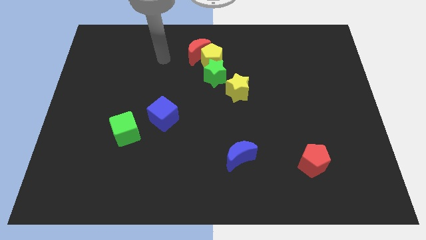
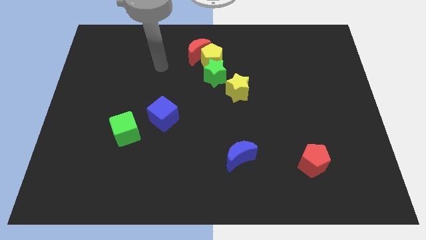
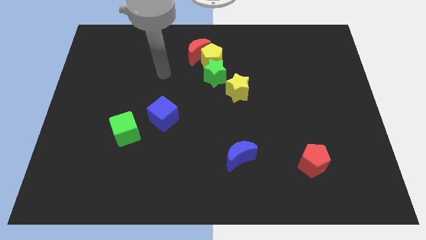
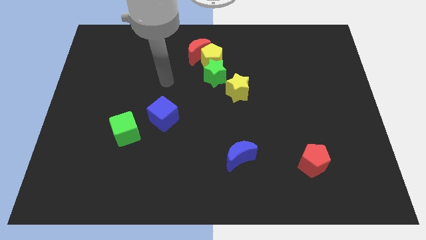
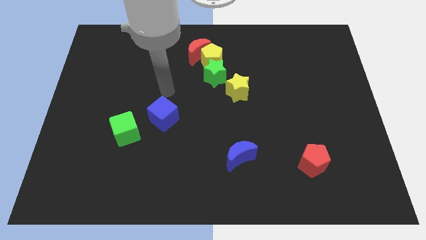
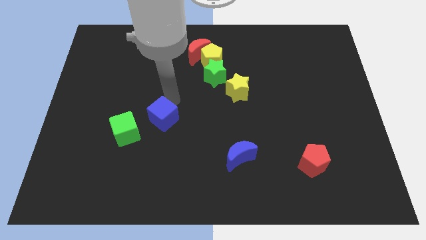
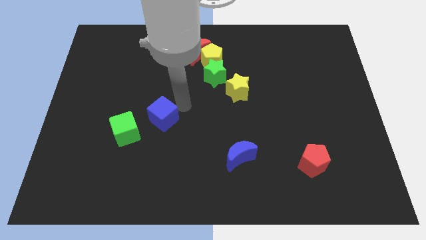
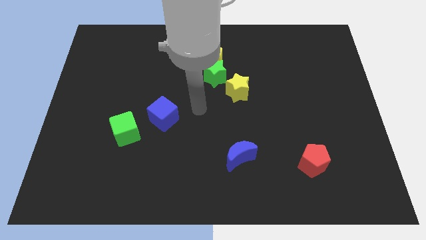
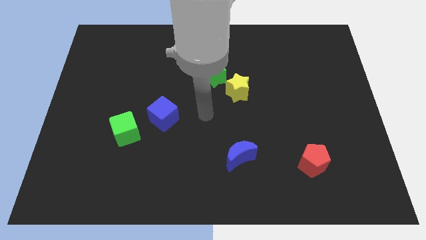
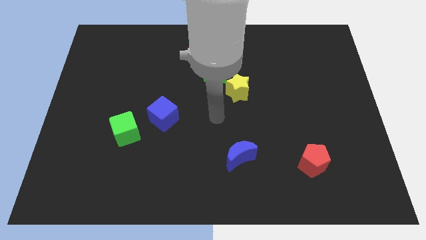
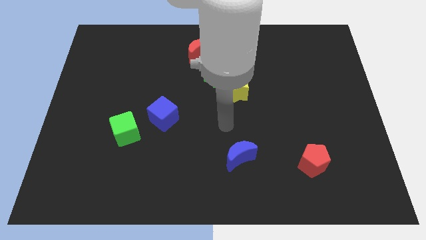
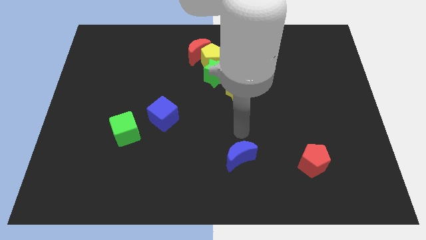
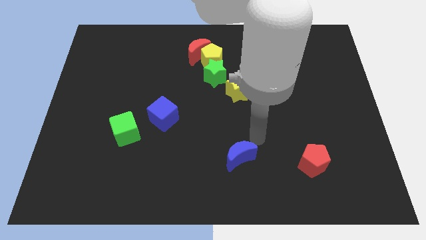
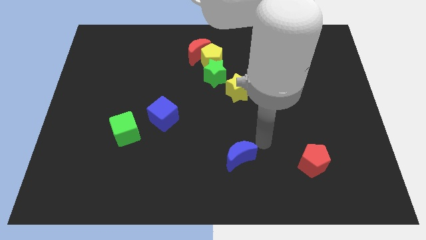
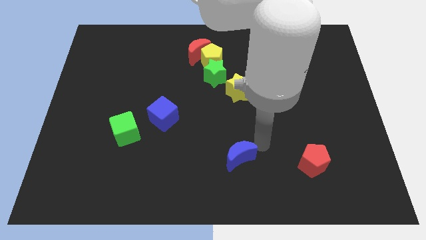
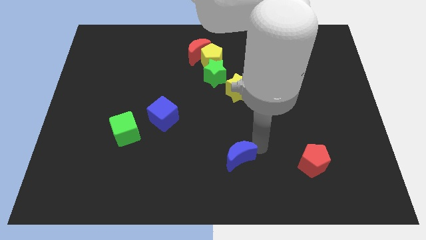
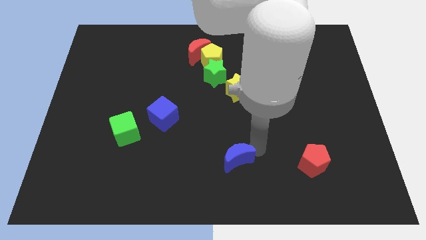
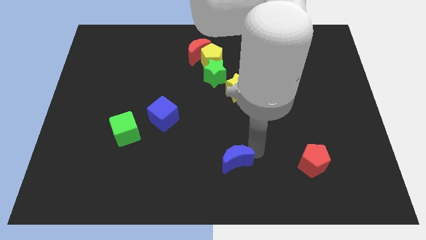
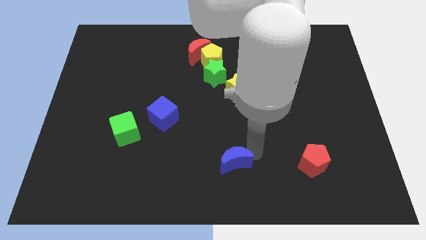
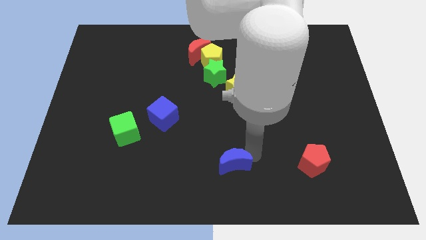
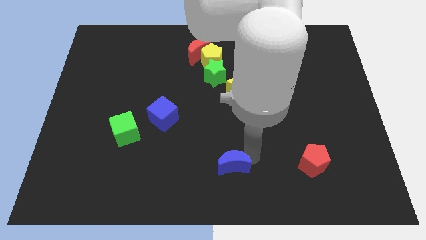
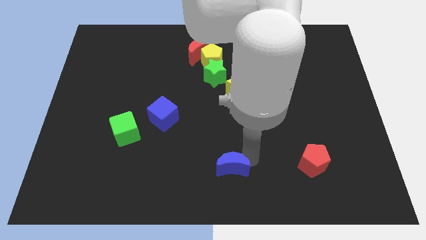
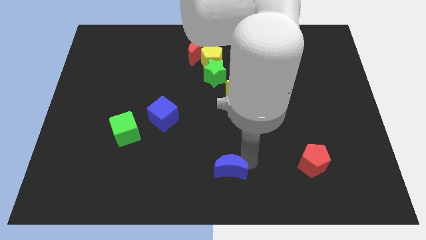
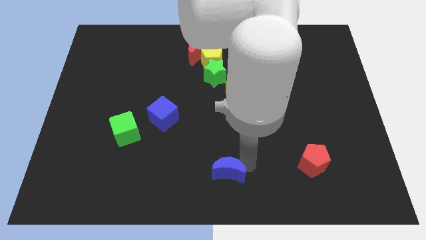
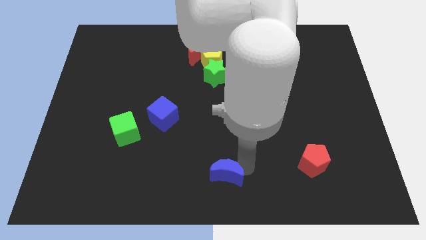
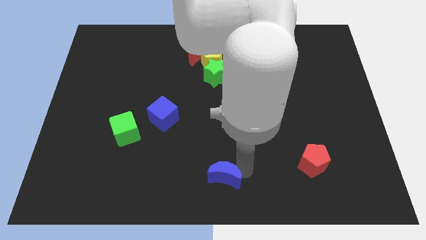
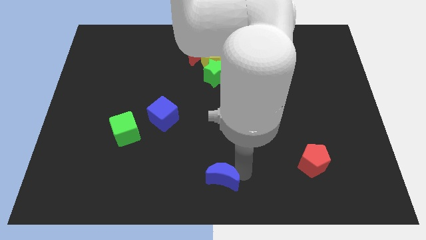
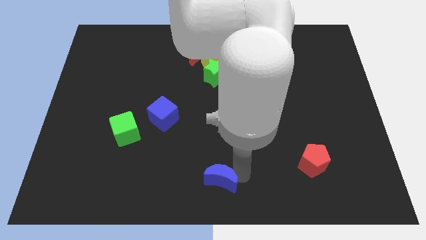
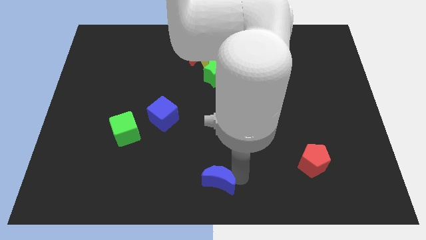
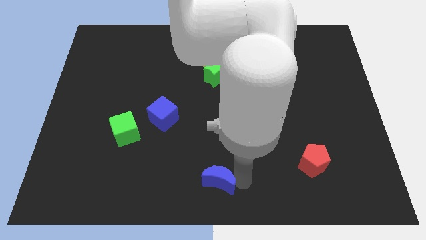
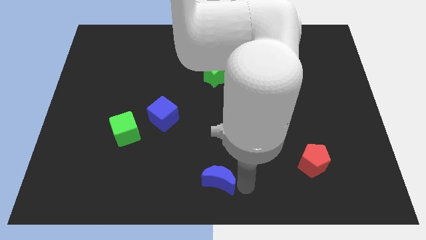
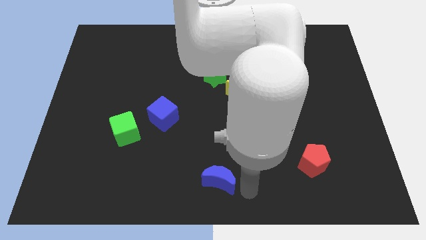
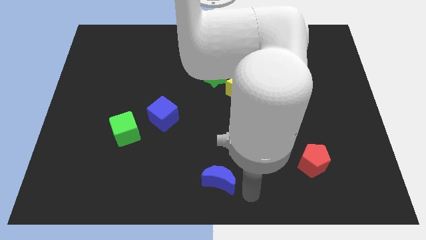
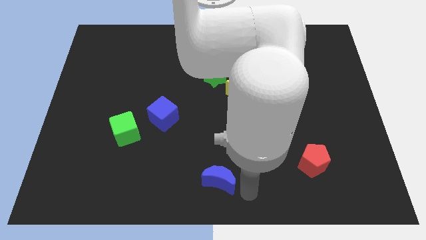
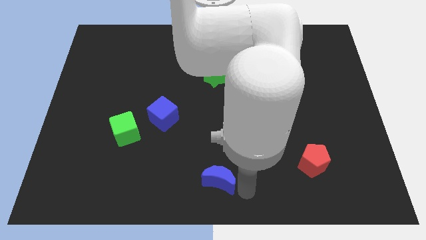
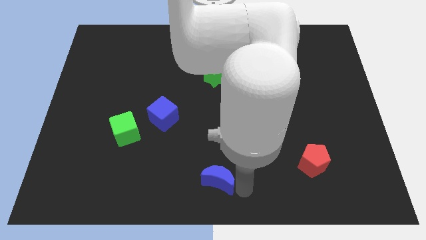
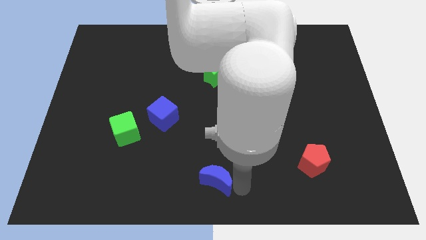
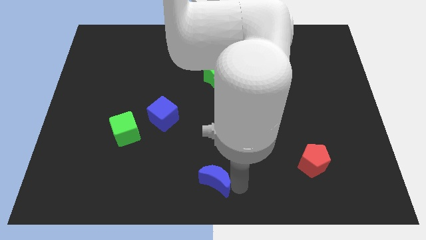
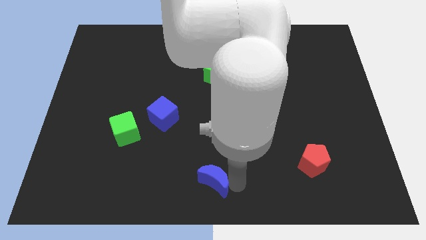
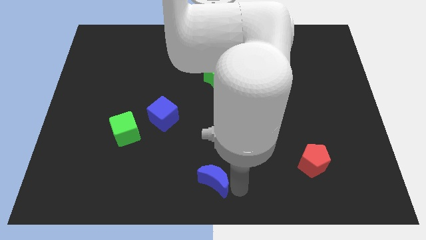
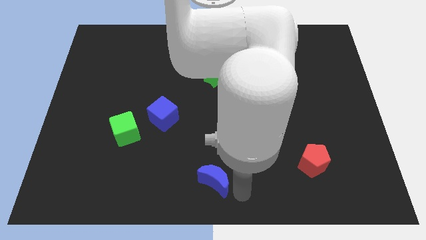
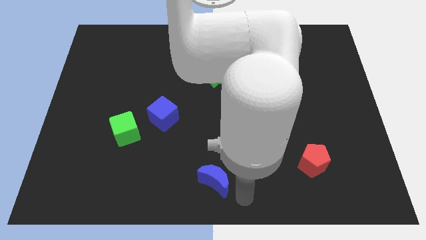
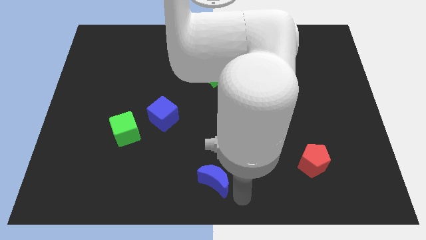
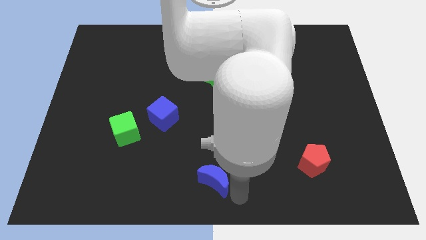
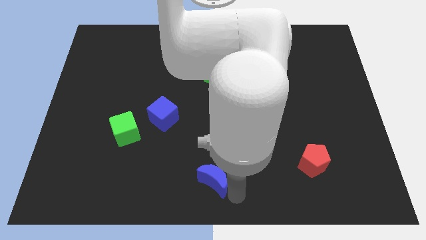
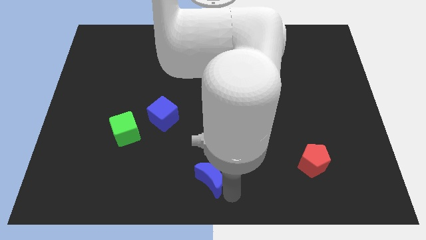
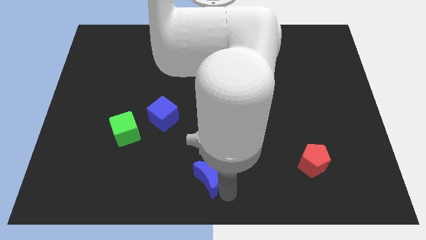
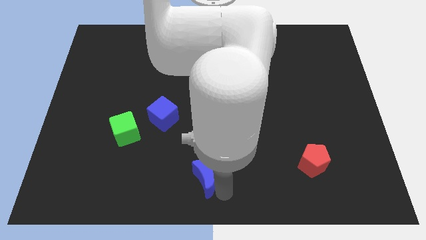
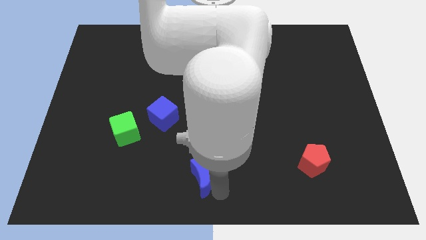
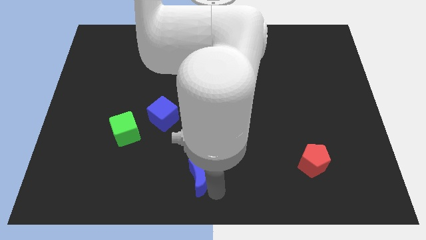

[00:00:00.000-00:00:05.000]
push the blue moon somewhat to the left

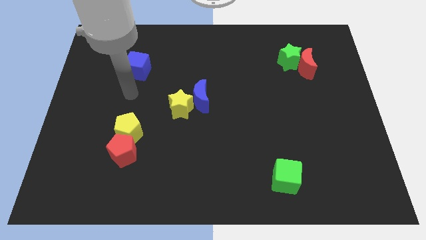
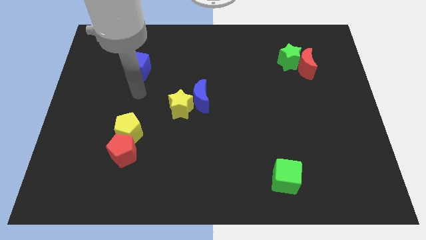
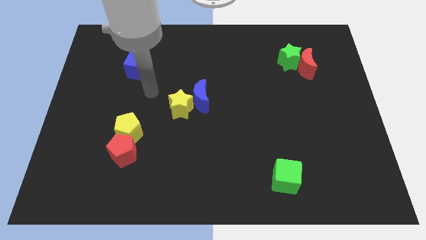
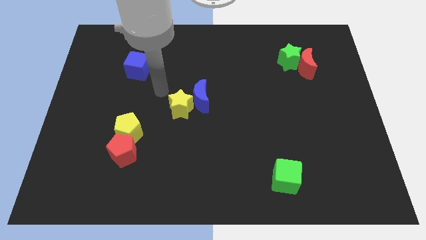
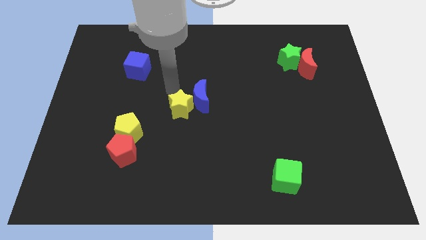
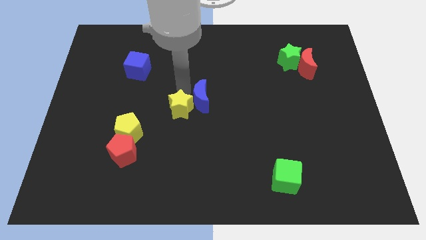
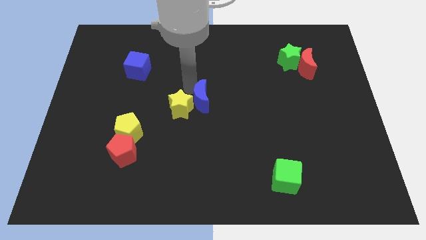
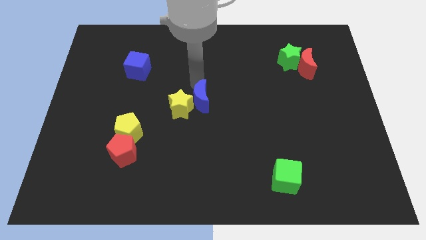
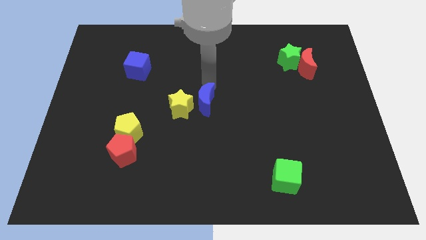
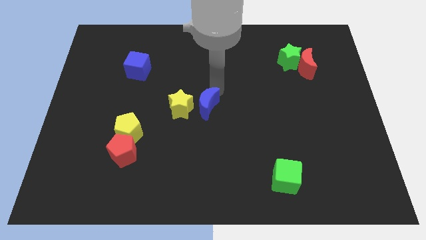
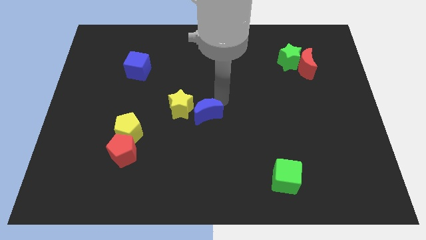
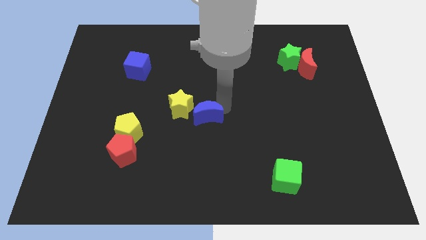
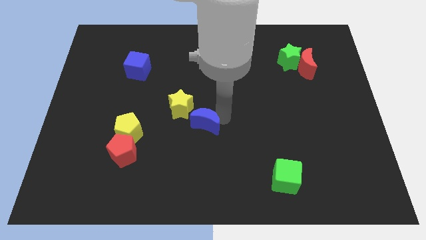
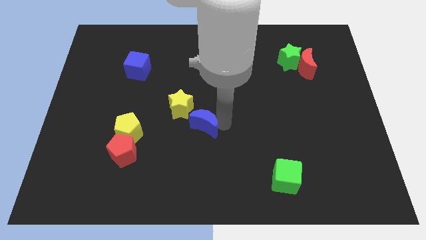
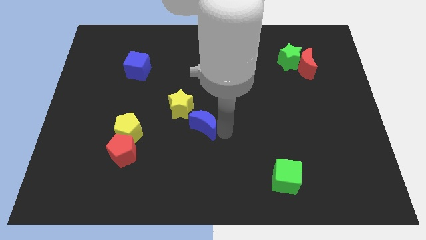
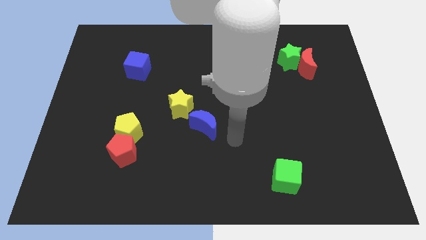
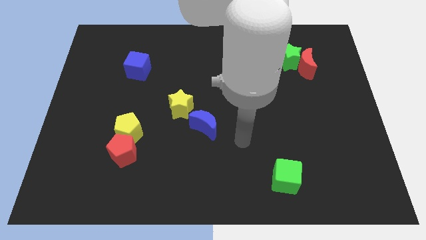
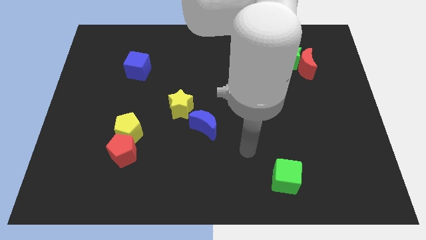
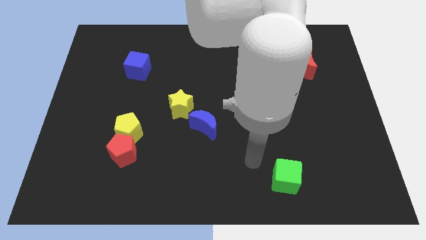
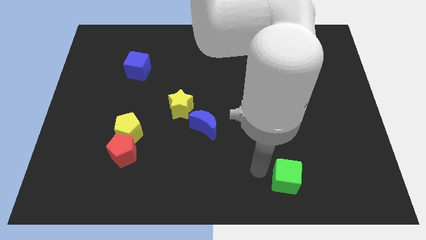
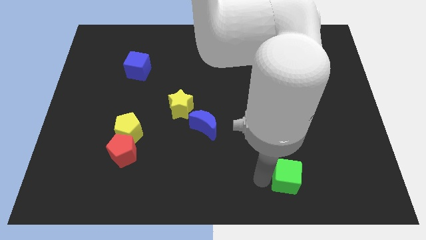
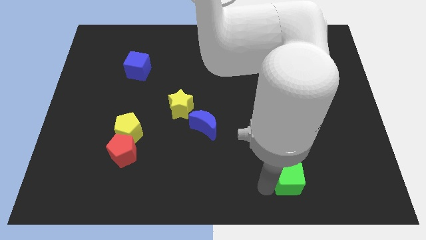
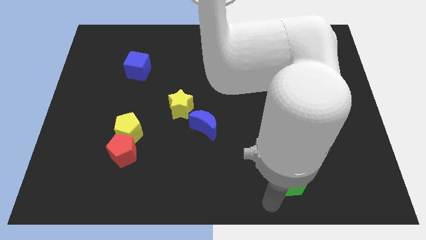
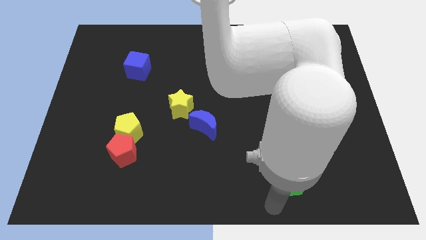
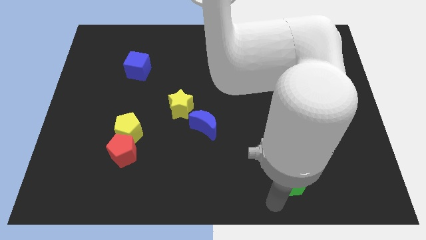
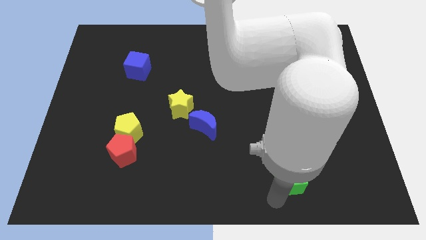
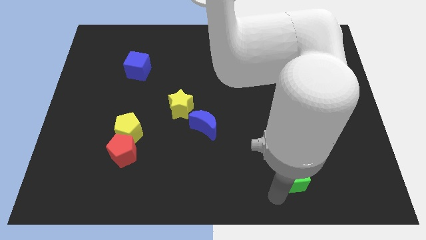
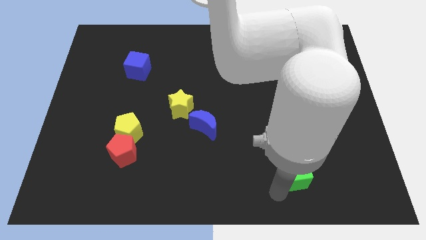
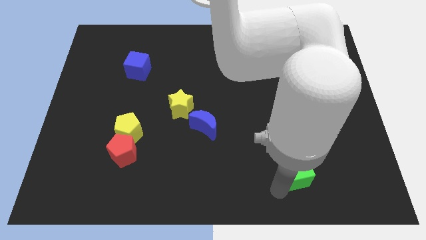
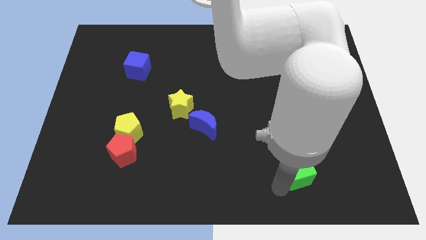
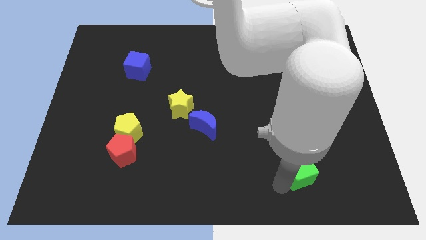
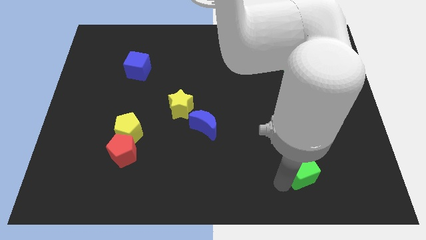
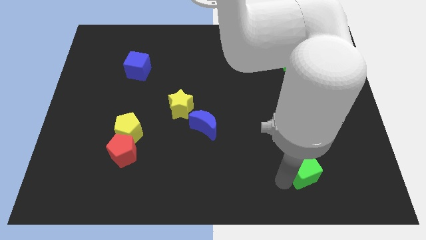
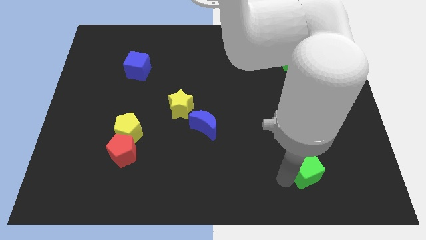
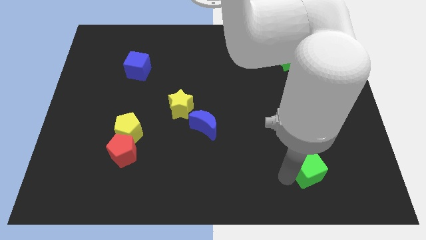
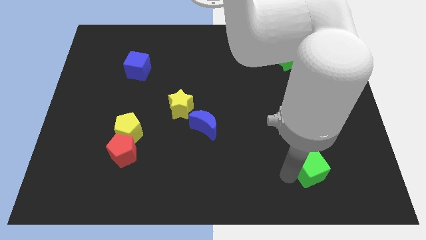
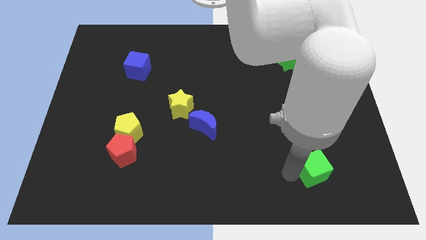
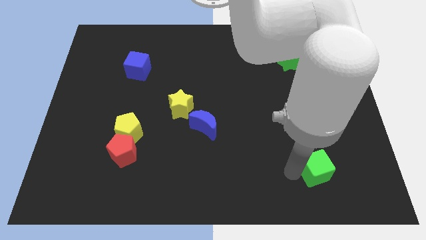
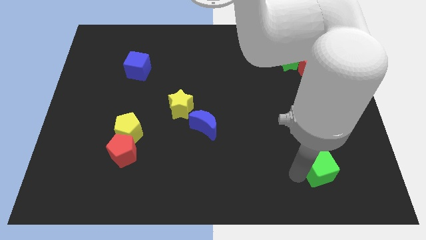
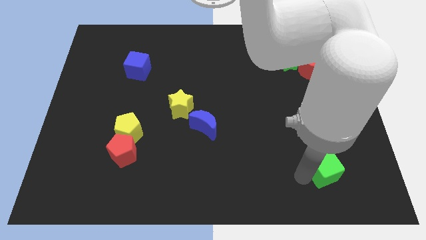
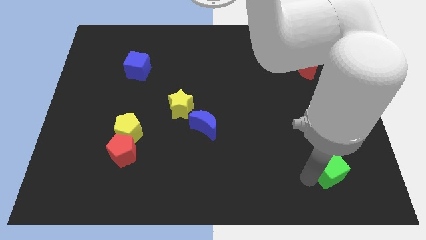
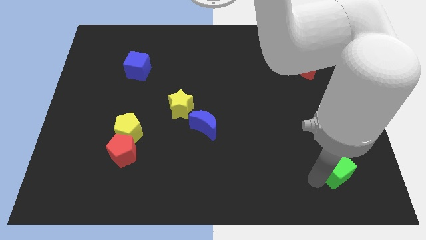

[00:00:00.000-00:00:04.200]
slightly slide the green cube upwards and right diagonally
